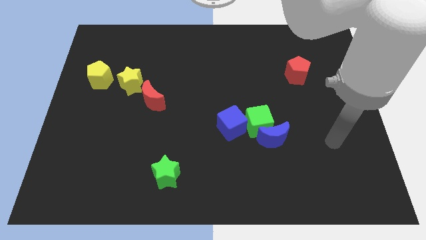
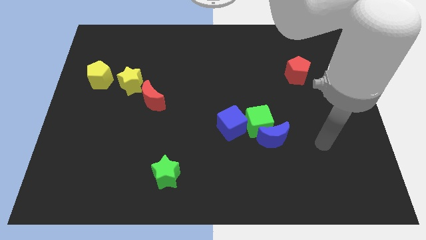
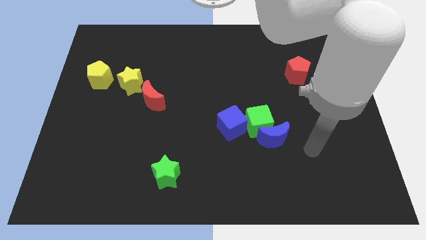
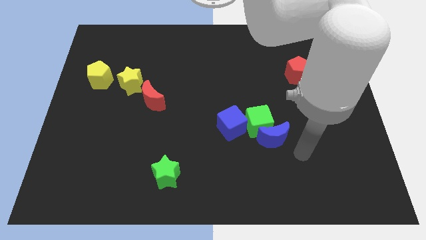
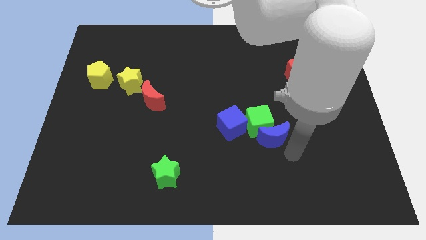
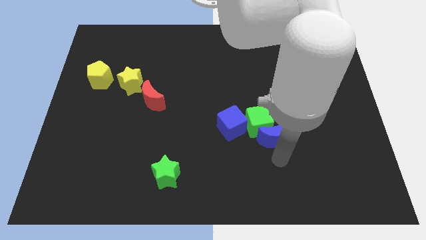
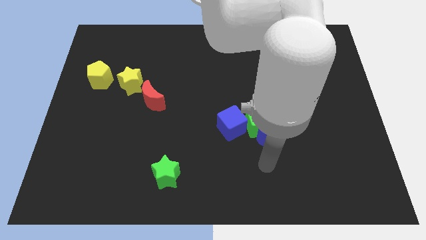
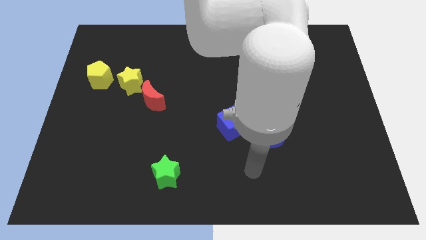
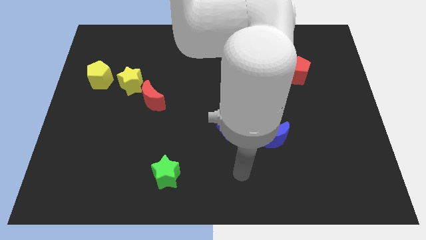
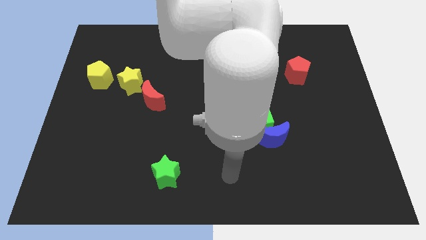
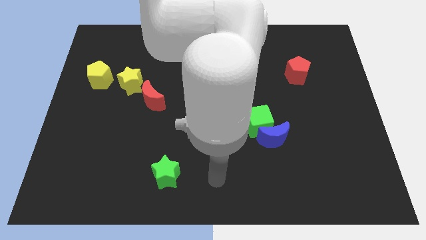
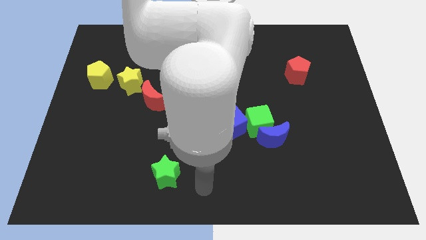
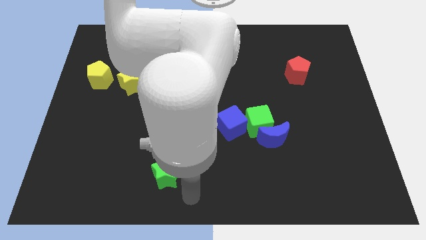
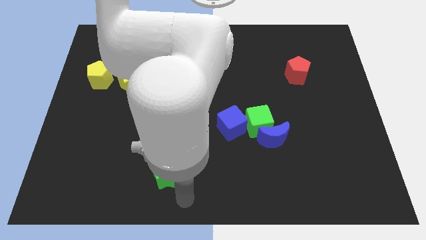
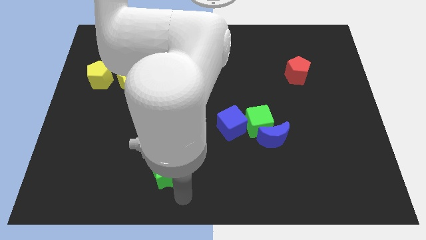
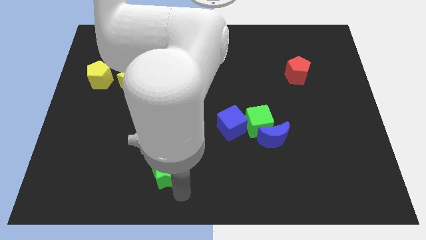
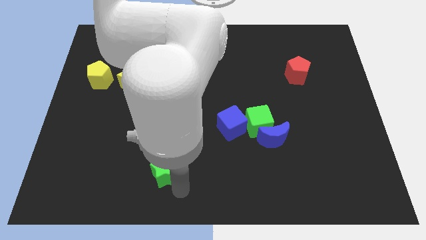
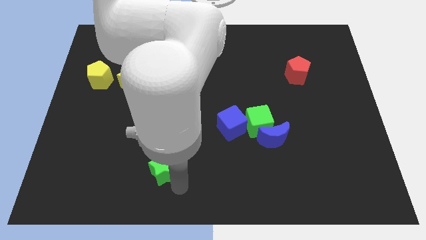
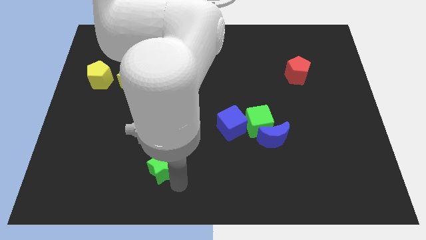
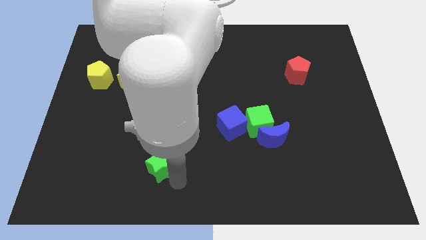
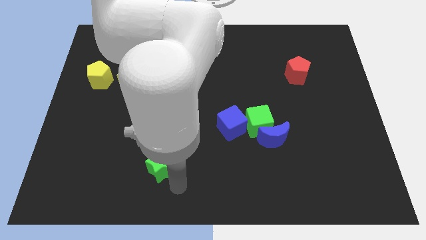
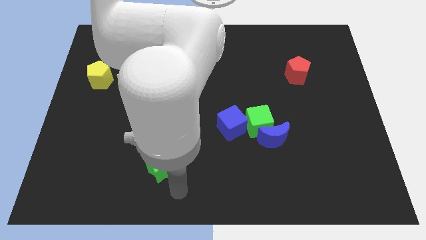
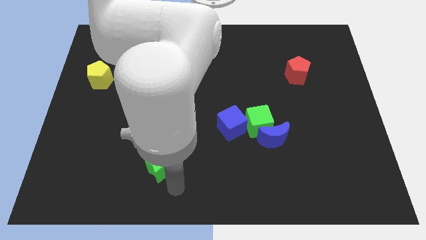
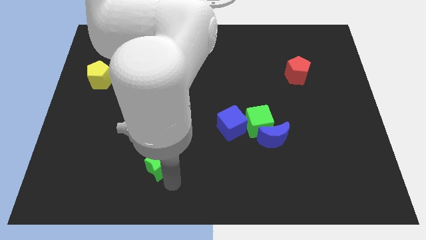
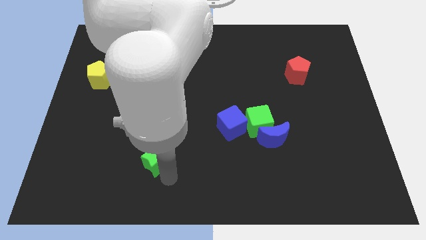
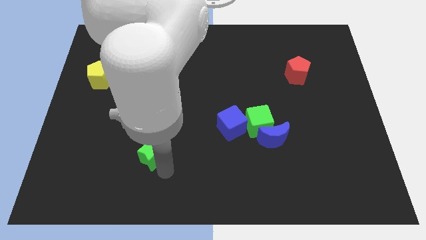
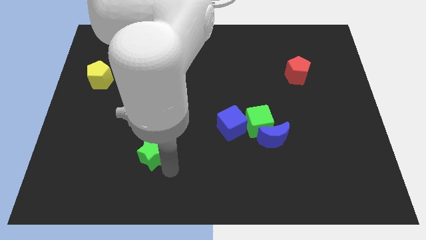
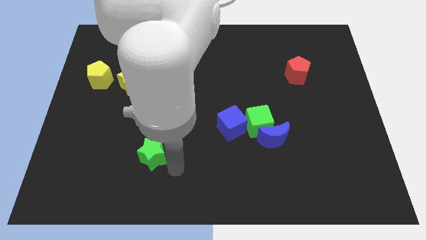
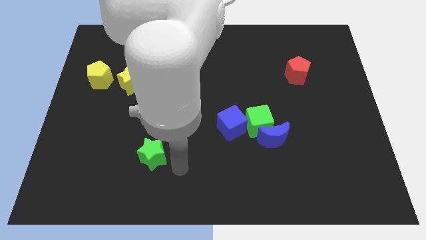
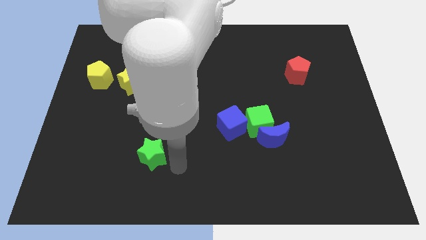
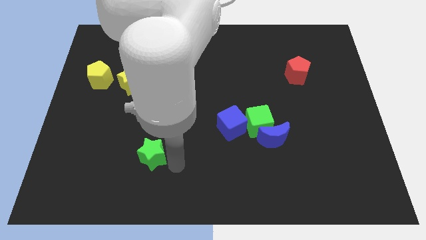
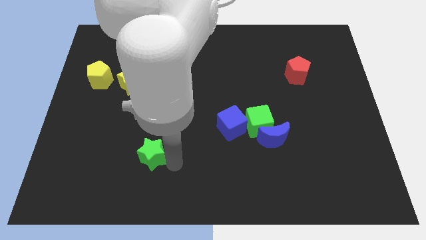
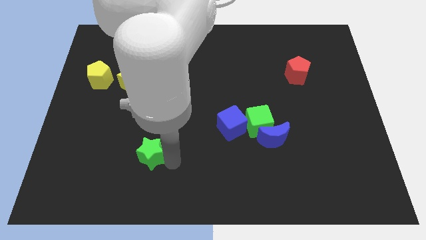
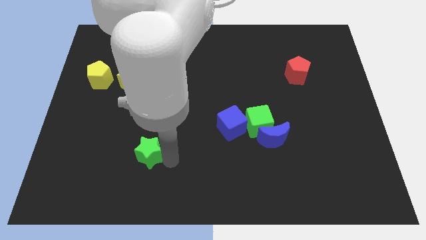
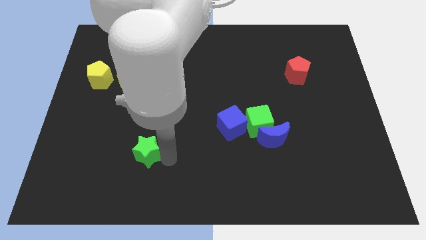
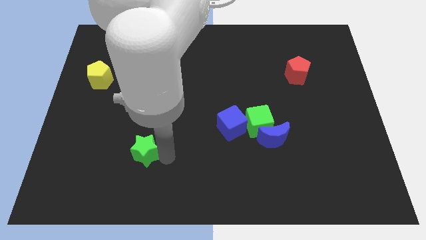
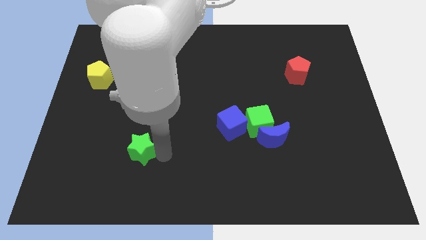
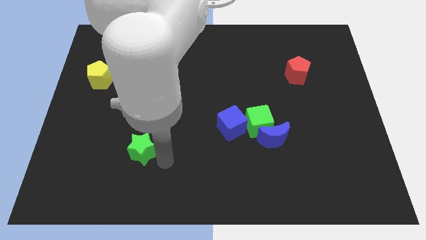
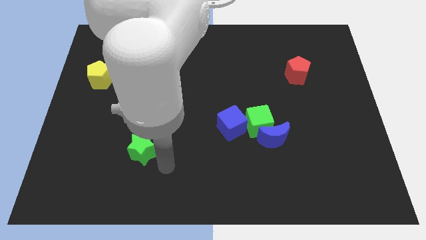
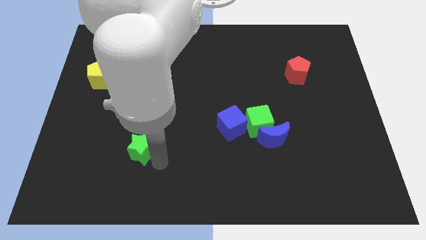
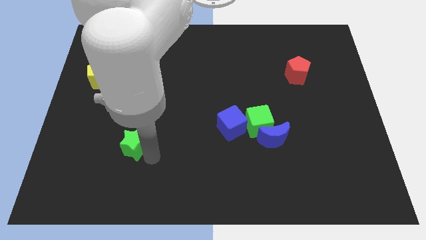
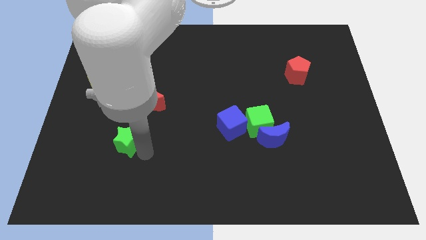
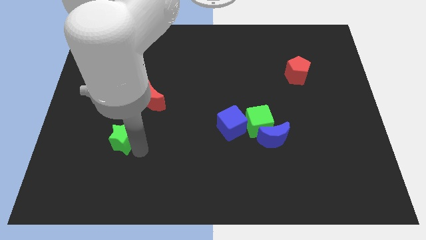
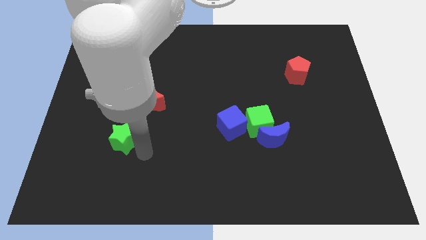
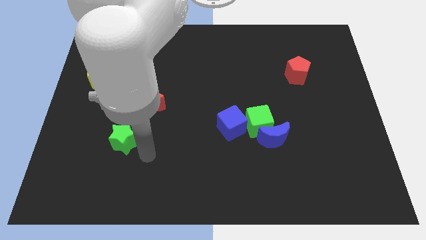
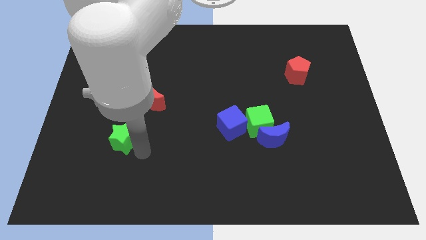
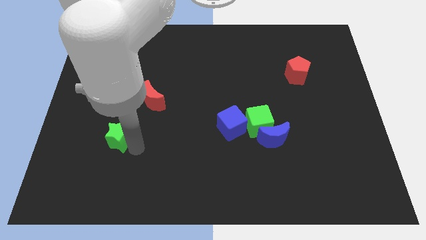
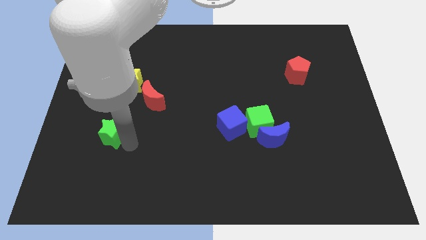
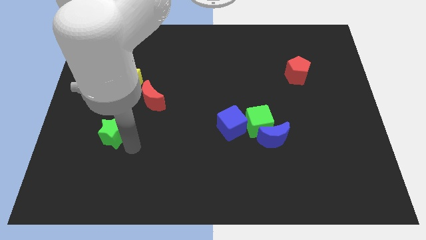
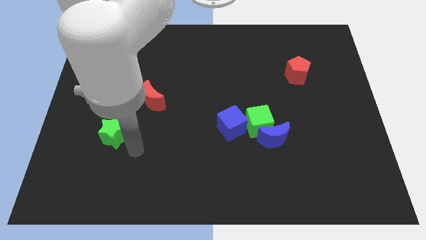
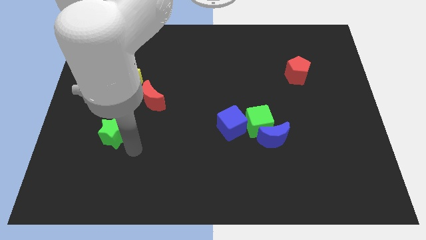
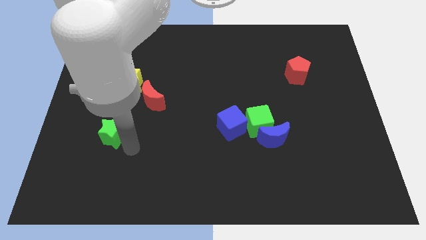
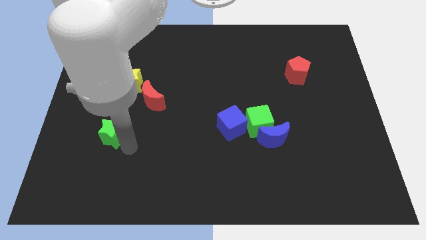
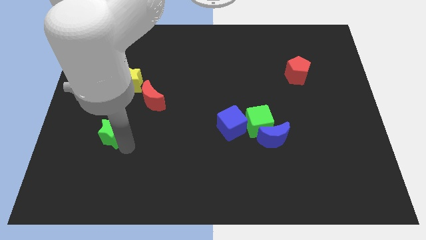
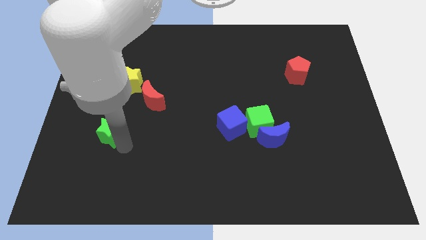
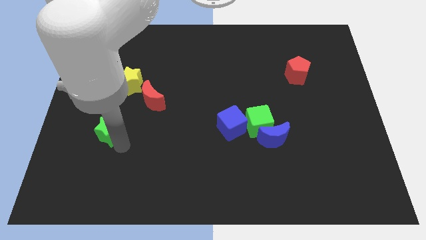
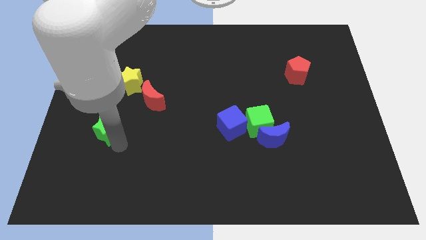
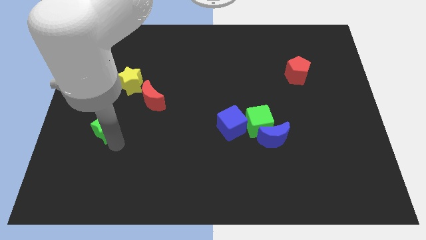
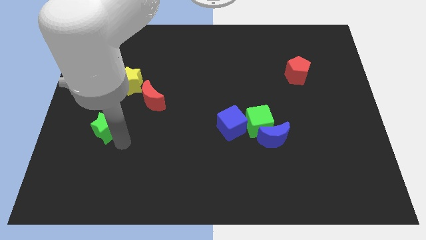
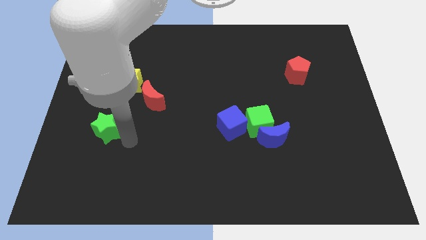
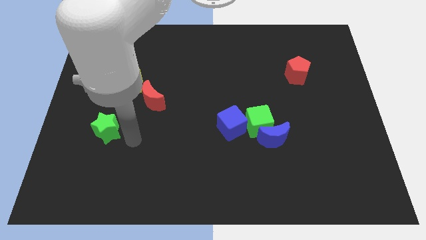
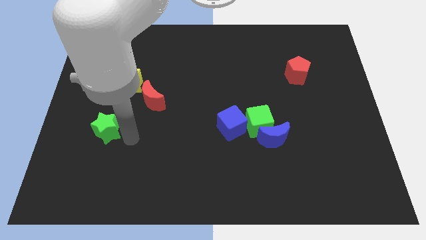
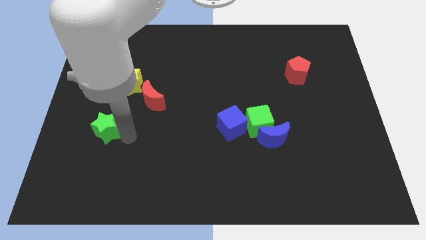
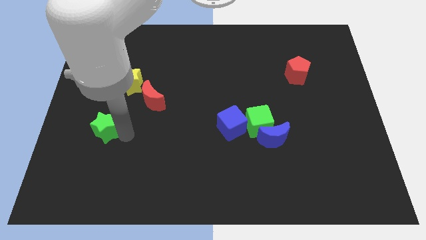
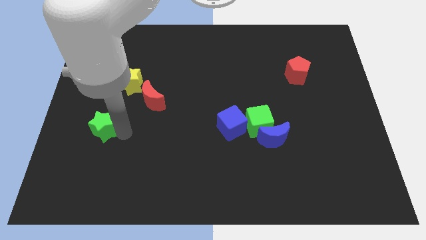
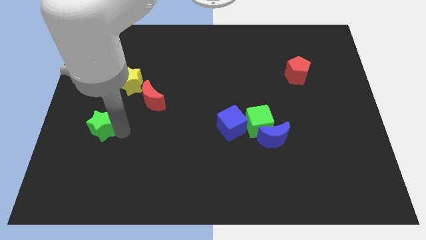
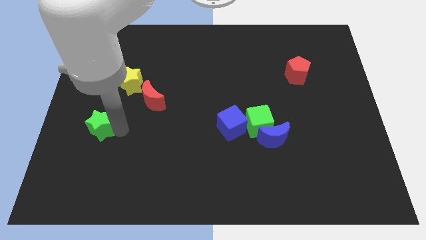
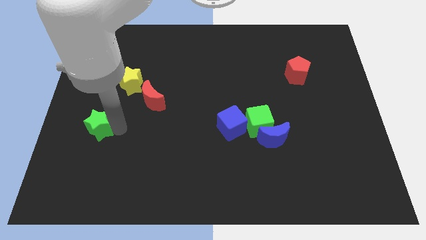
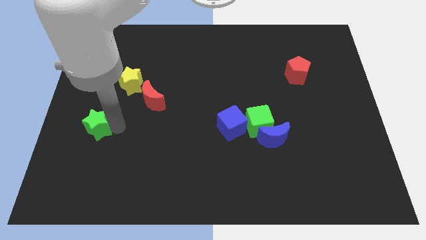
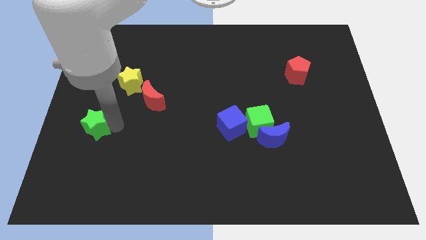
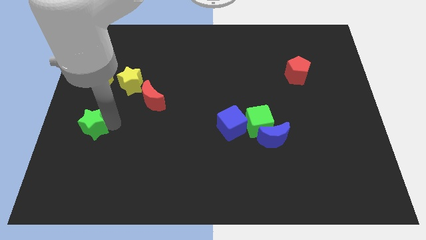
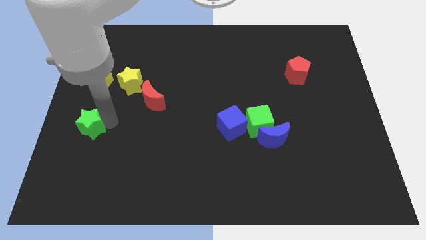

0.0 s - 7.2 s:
move the green star to the left side of the board
